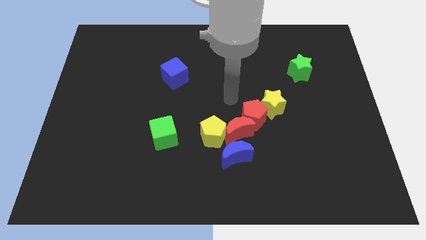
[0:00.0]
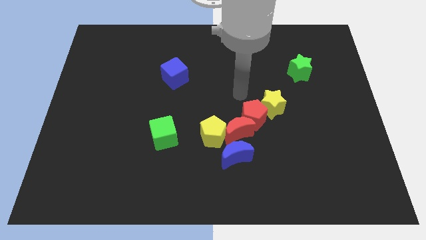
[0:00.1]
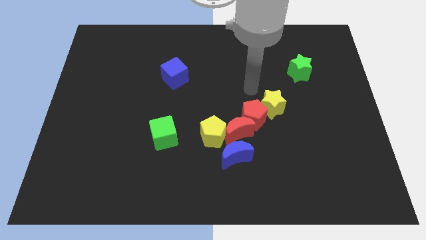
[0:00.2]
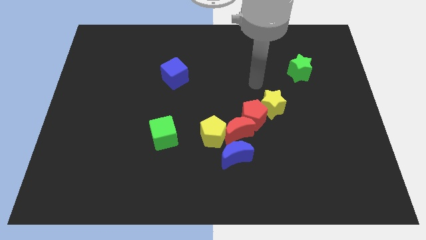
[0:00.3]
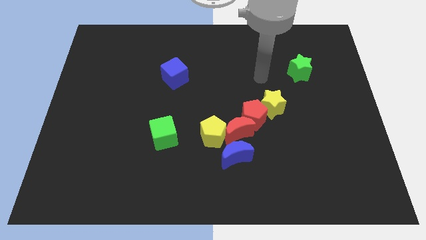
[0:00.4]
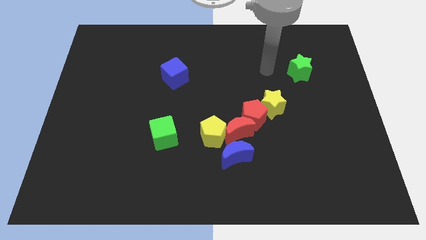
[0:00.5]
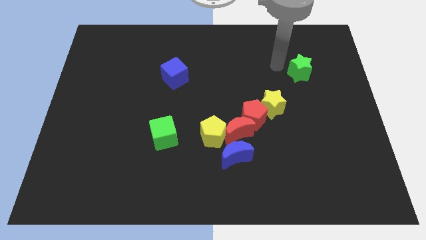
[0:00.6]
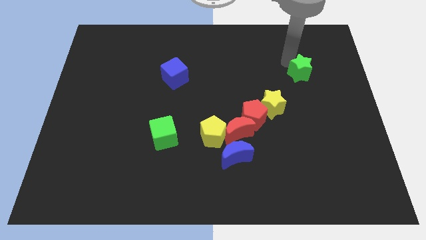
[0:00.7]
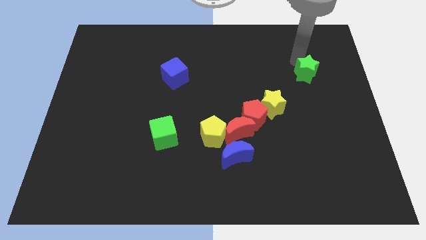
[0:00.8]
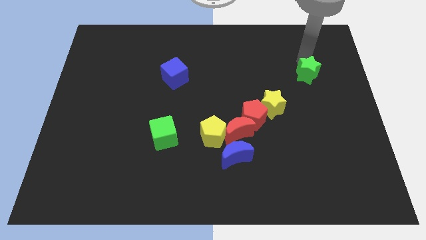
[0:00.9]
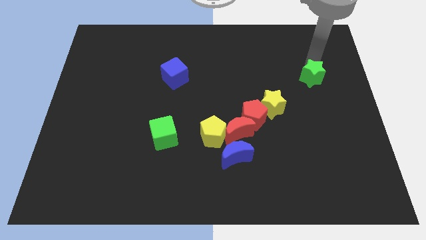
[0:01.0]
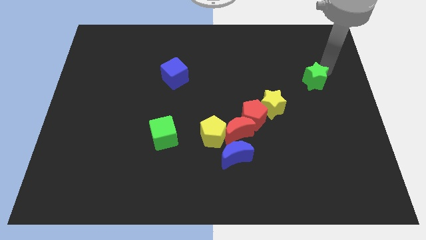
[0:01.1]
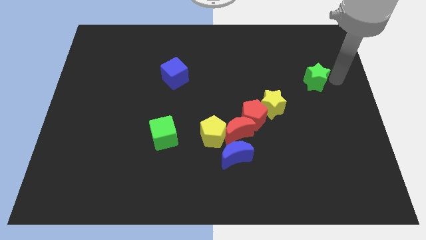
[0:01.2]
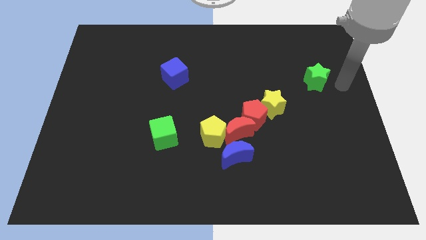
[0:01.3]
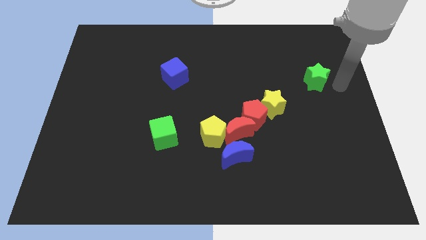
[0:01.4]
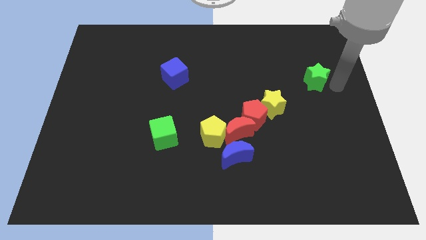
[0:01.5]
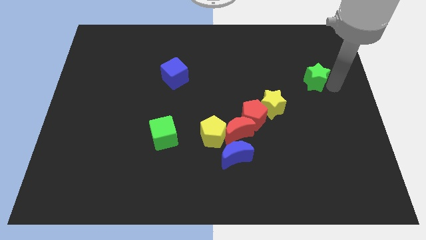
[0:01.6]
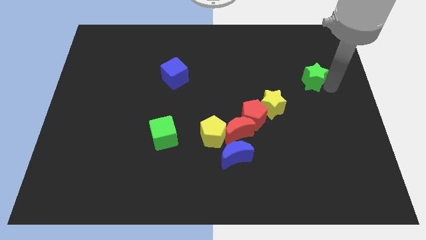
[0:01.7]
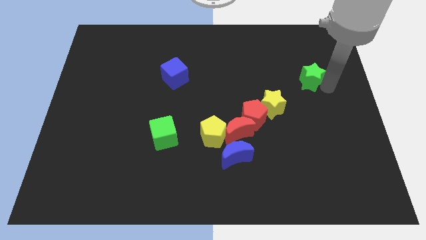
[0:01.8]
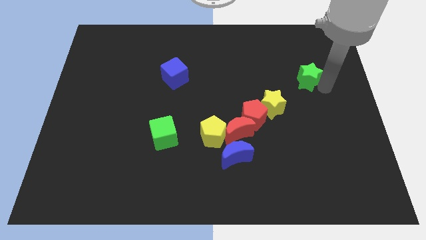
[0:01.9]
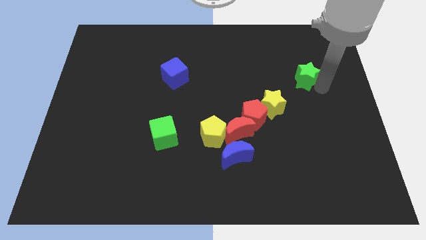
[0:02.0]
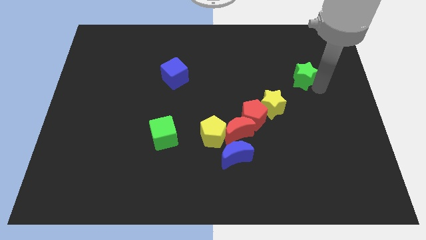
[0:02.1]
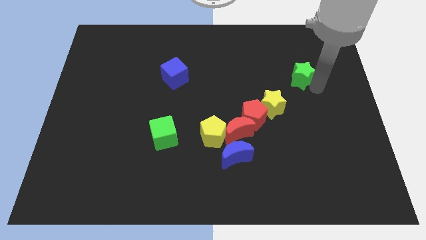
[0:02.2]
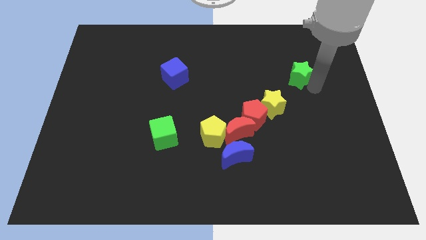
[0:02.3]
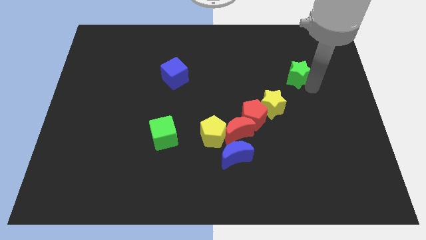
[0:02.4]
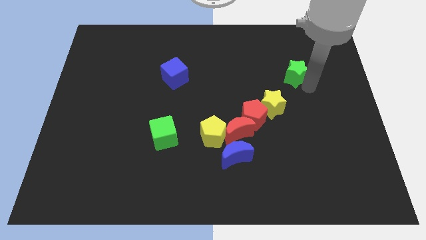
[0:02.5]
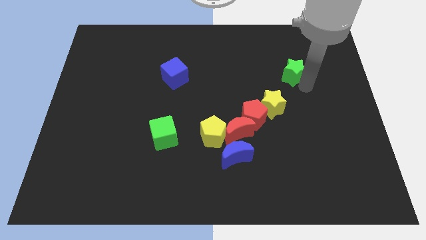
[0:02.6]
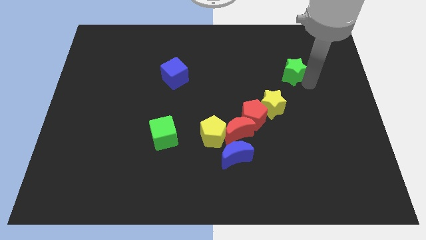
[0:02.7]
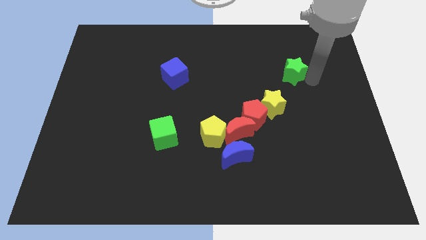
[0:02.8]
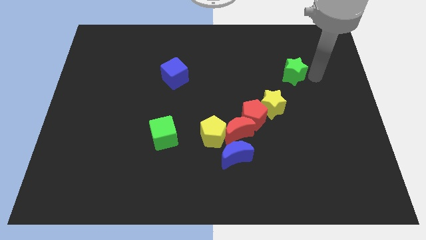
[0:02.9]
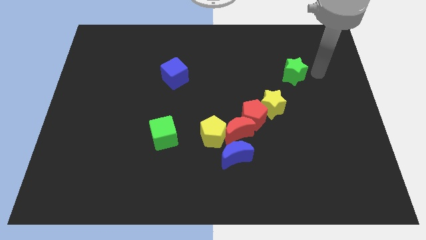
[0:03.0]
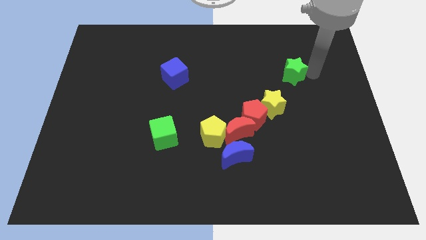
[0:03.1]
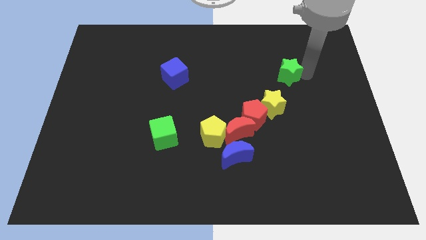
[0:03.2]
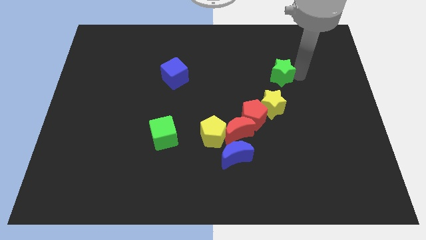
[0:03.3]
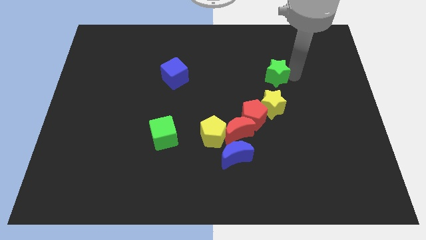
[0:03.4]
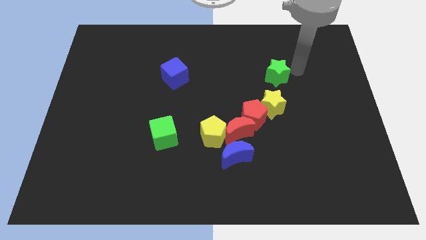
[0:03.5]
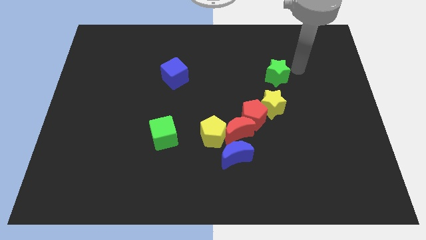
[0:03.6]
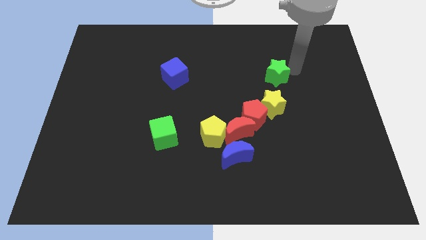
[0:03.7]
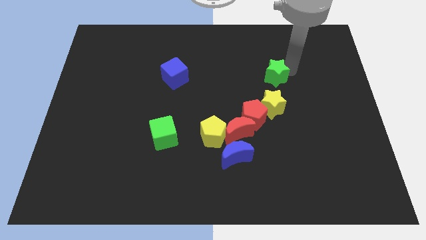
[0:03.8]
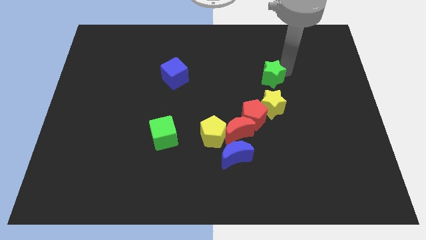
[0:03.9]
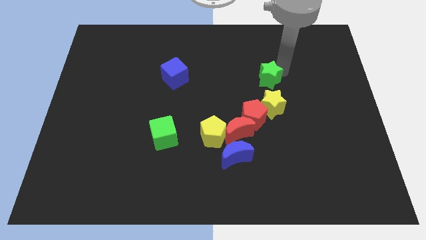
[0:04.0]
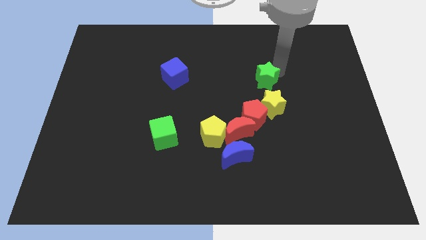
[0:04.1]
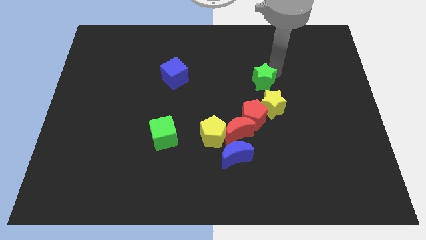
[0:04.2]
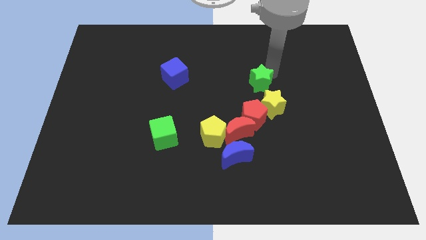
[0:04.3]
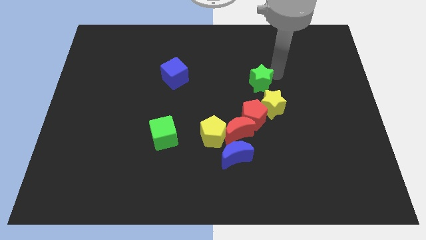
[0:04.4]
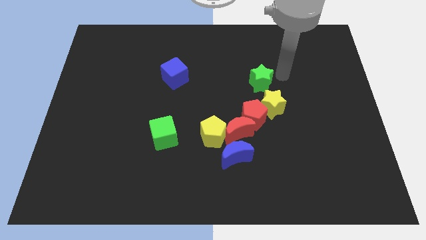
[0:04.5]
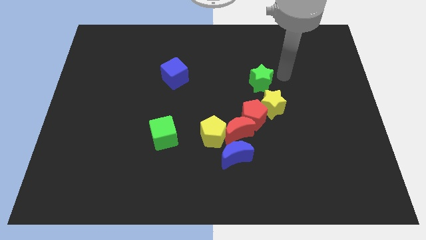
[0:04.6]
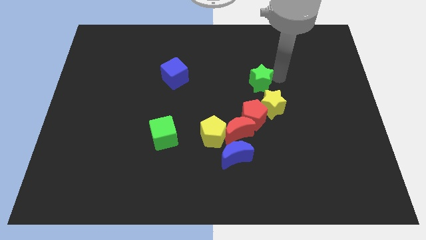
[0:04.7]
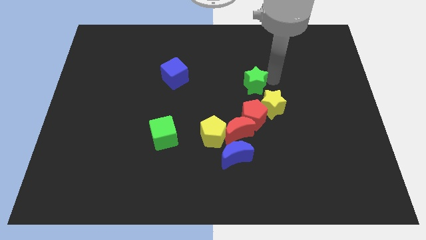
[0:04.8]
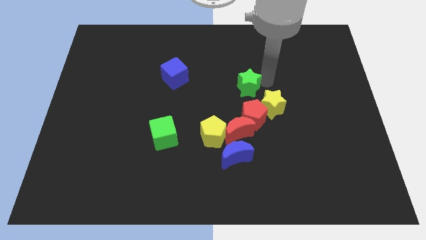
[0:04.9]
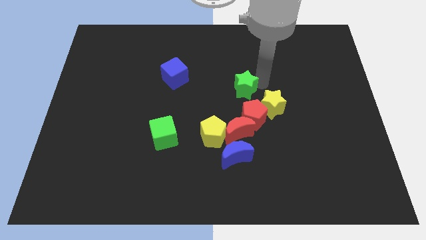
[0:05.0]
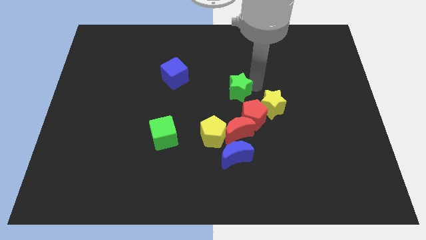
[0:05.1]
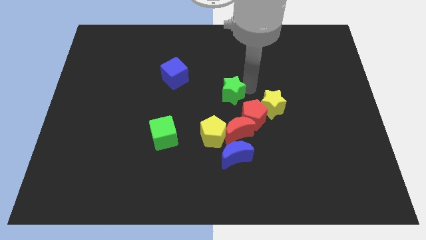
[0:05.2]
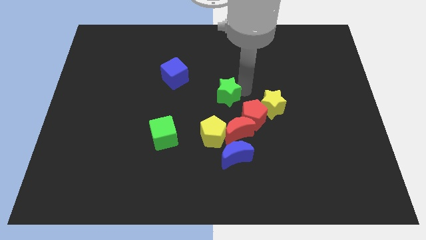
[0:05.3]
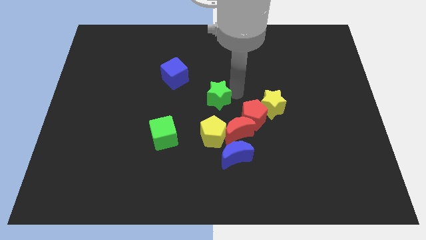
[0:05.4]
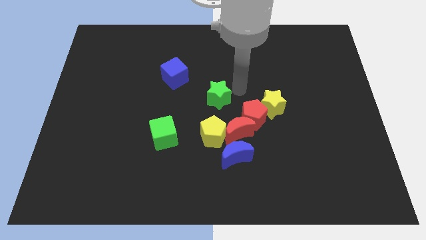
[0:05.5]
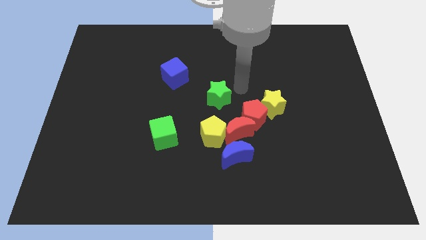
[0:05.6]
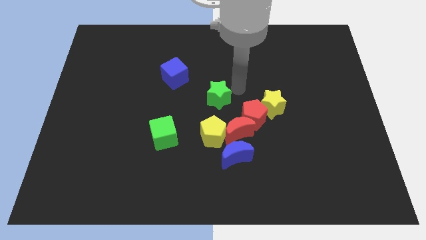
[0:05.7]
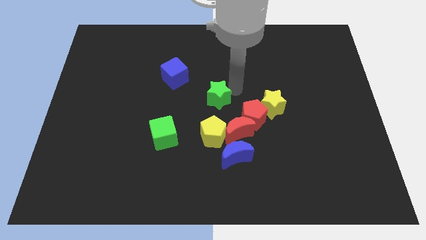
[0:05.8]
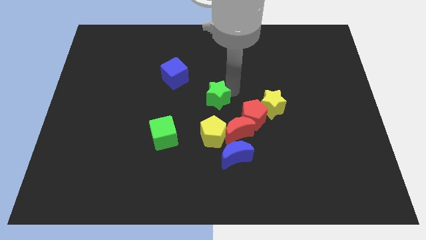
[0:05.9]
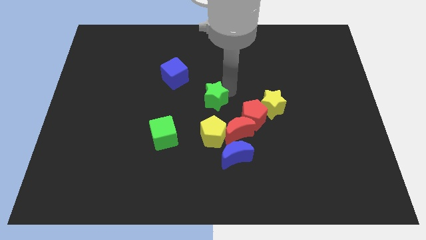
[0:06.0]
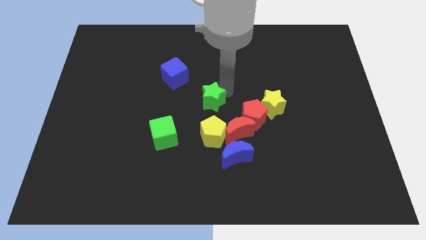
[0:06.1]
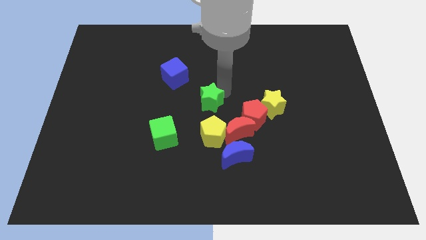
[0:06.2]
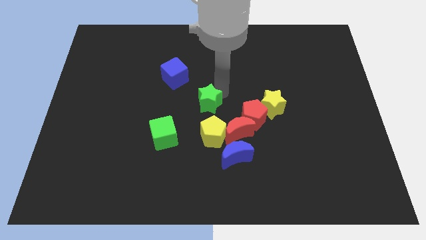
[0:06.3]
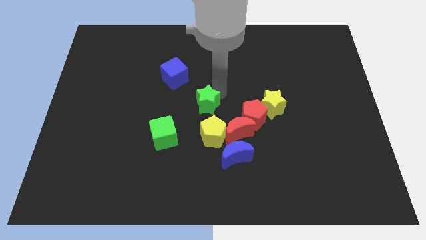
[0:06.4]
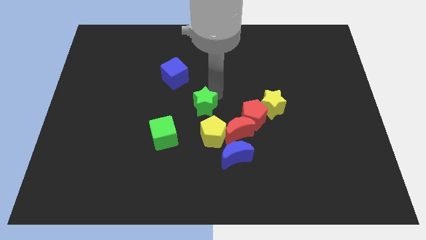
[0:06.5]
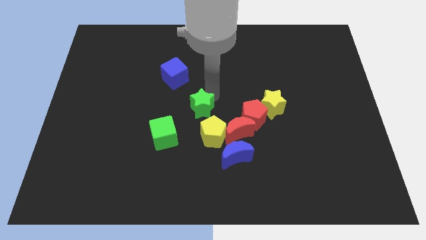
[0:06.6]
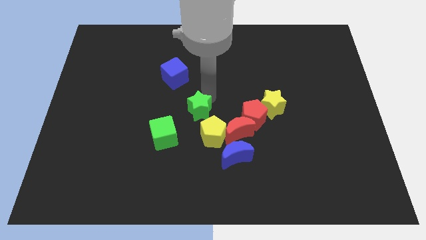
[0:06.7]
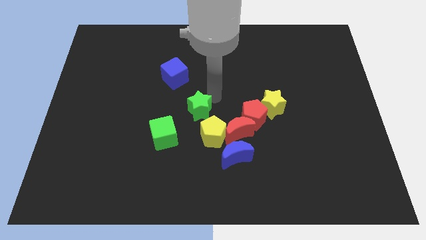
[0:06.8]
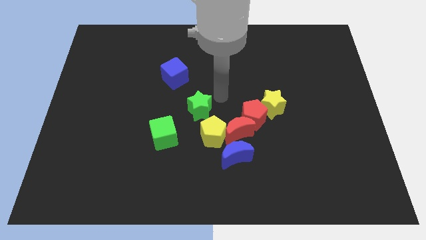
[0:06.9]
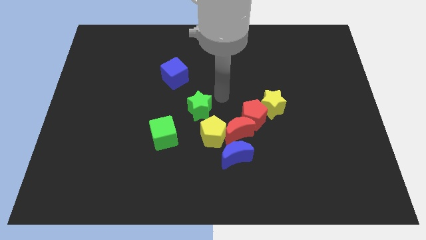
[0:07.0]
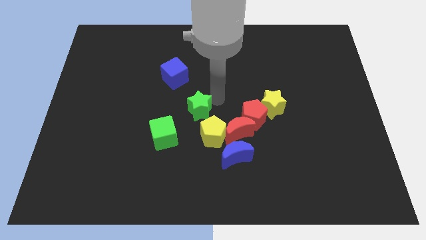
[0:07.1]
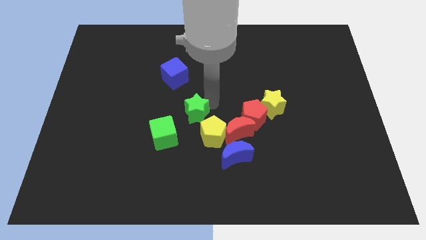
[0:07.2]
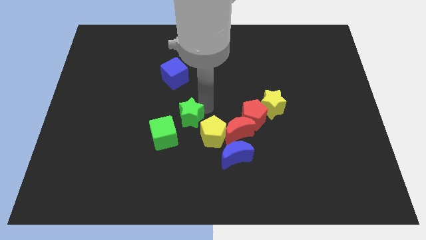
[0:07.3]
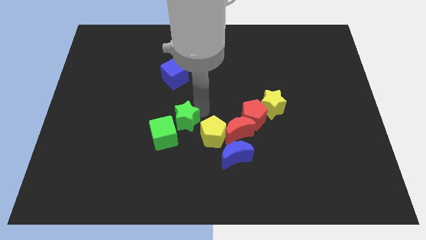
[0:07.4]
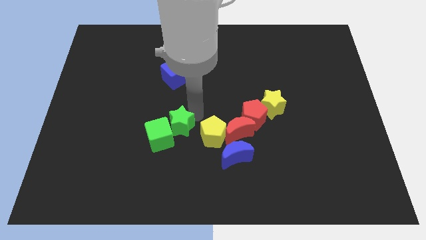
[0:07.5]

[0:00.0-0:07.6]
slide the green star close to the green cube
